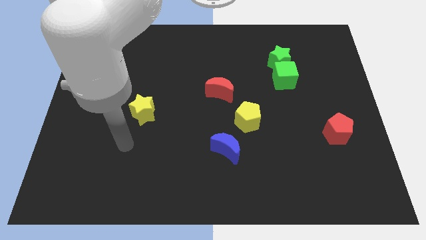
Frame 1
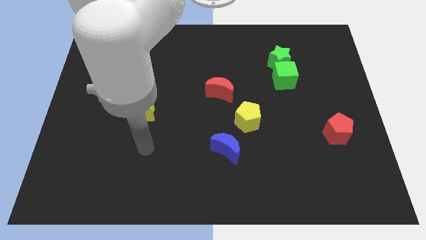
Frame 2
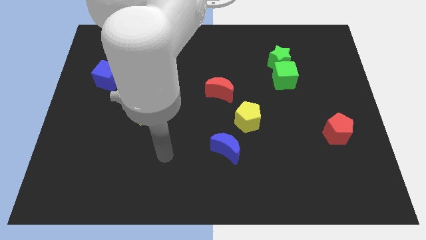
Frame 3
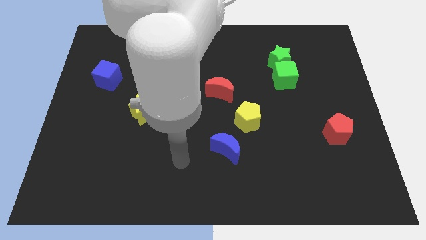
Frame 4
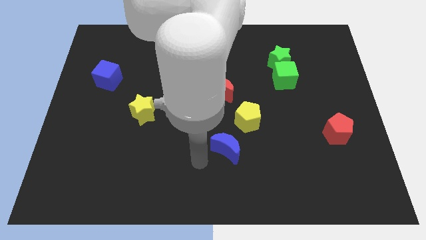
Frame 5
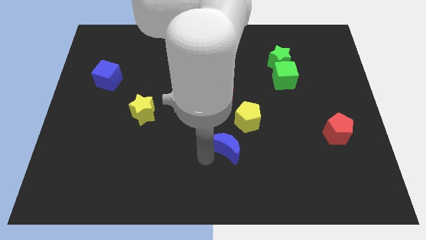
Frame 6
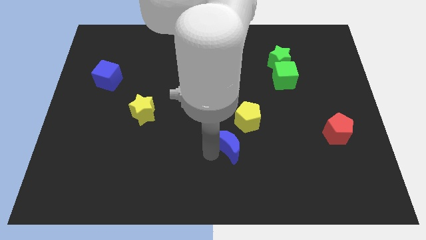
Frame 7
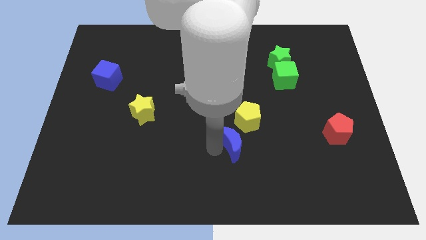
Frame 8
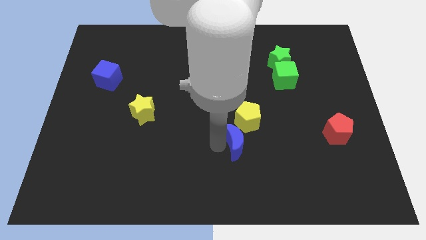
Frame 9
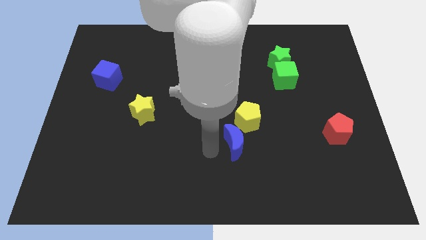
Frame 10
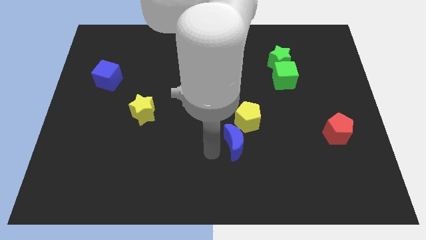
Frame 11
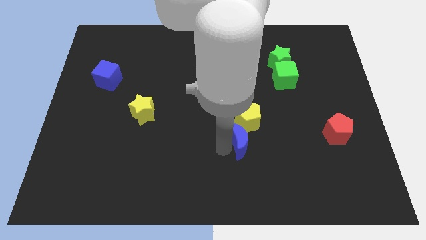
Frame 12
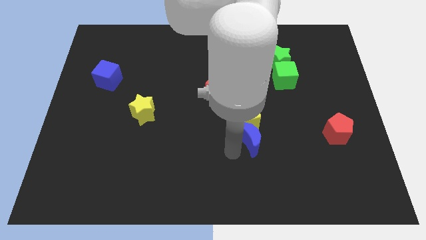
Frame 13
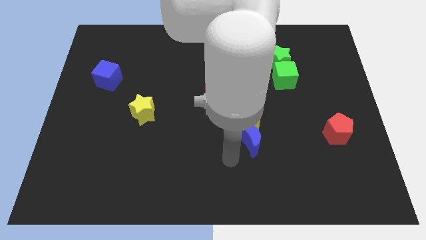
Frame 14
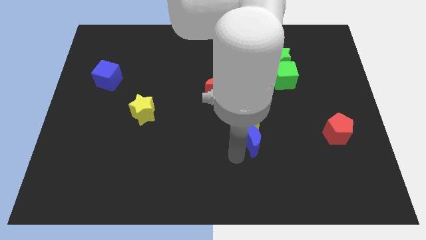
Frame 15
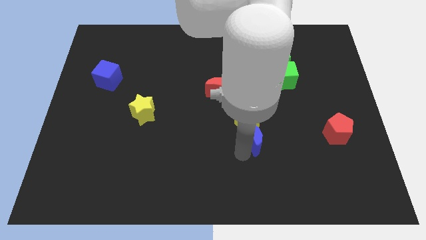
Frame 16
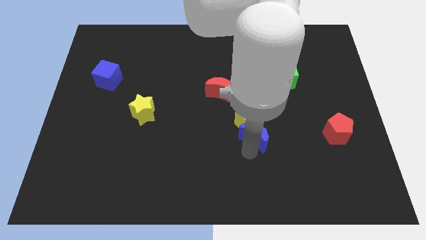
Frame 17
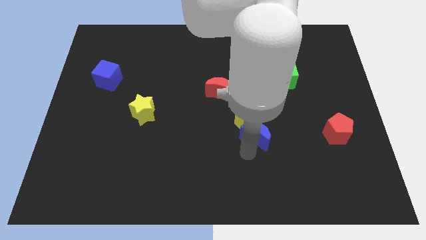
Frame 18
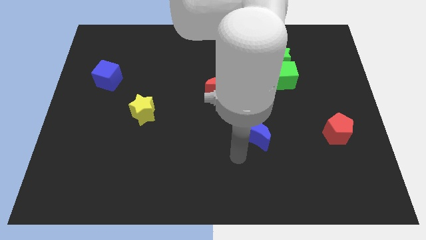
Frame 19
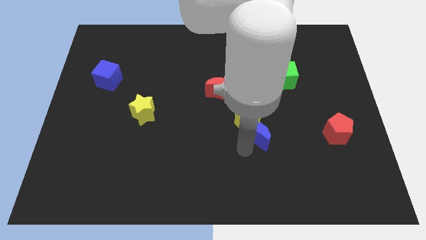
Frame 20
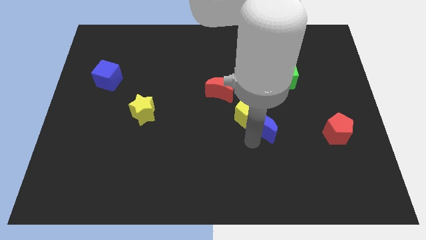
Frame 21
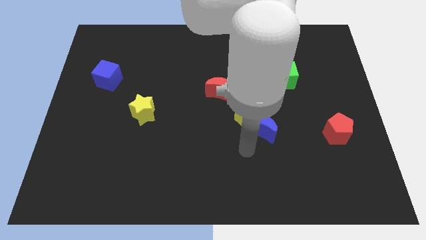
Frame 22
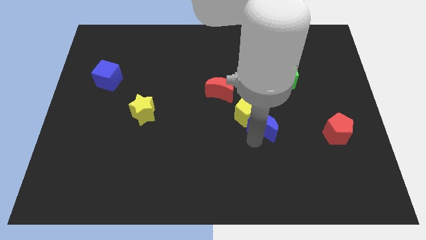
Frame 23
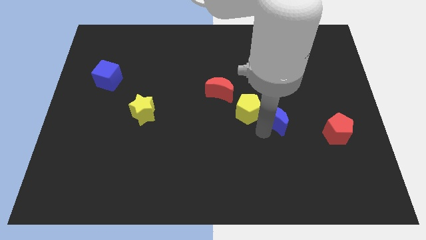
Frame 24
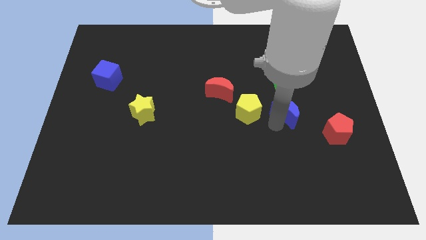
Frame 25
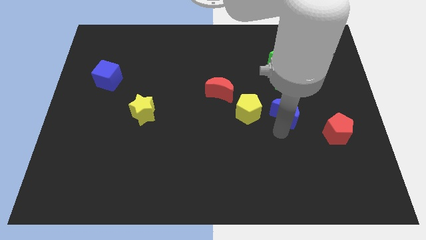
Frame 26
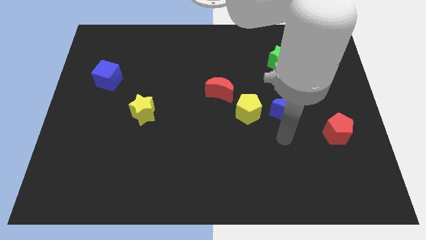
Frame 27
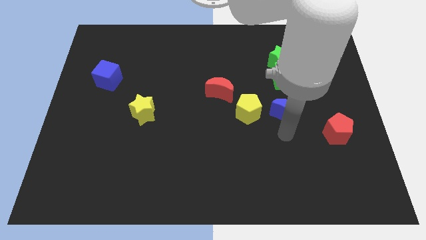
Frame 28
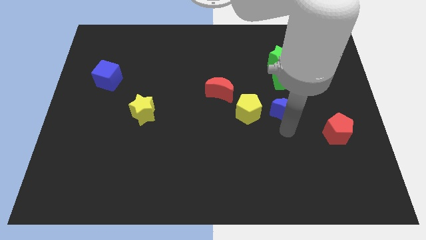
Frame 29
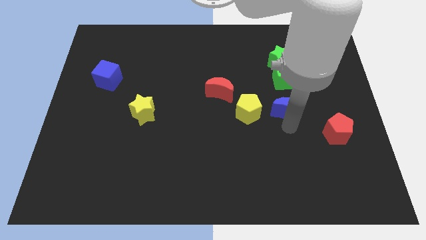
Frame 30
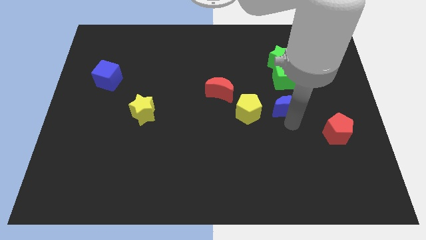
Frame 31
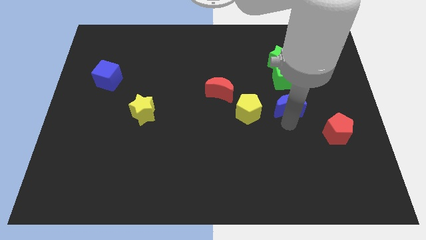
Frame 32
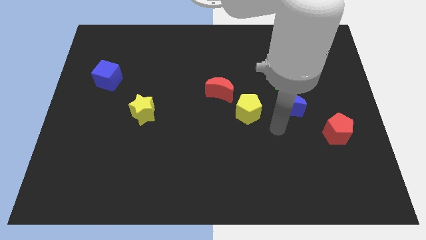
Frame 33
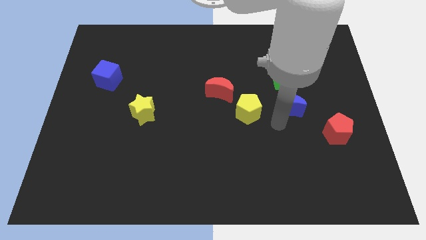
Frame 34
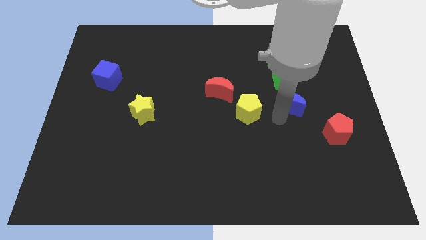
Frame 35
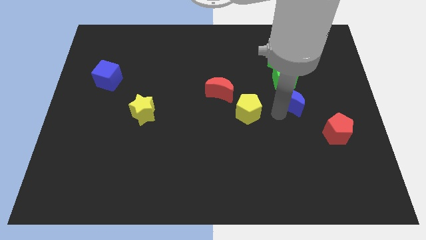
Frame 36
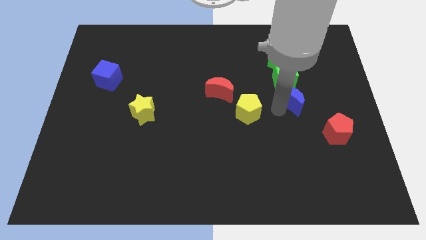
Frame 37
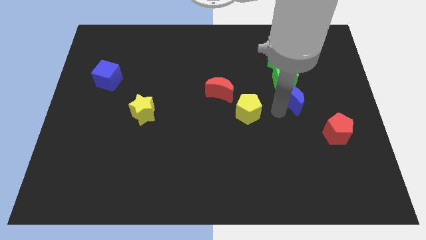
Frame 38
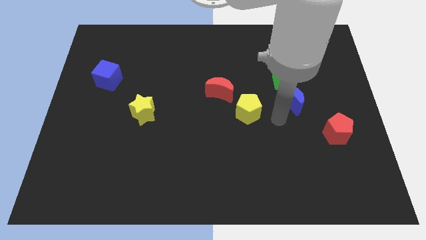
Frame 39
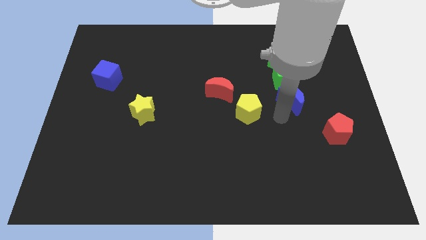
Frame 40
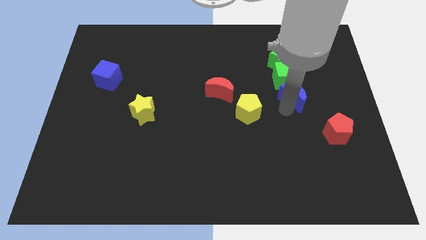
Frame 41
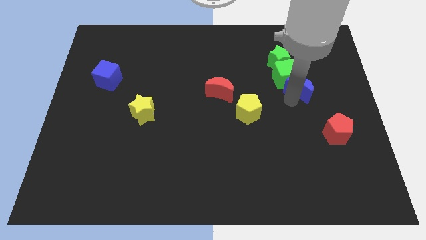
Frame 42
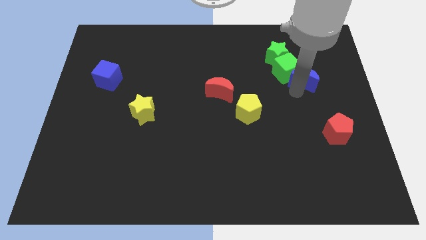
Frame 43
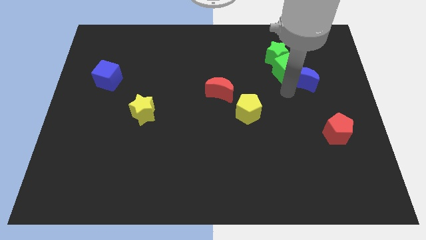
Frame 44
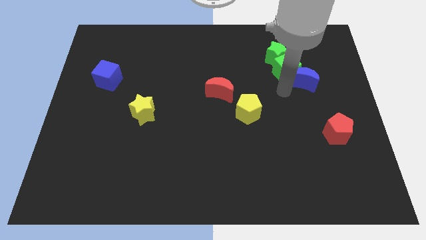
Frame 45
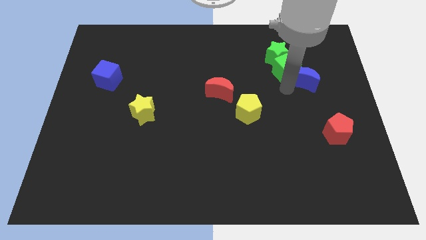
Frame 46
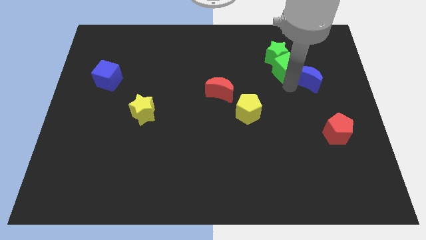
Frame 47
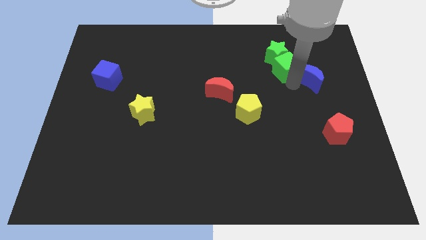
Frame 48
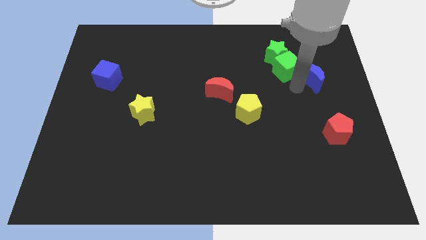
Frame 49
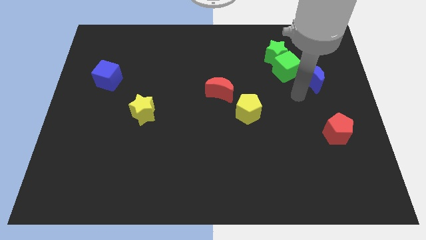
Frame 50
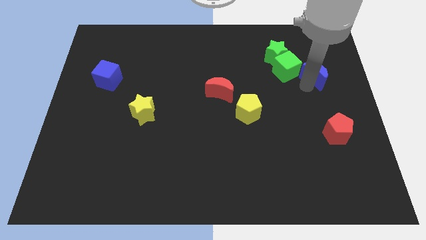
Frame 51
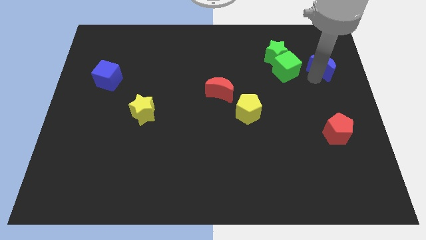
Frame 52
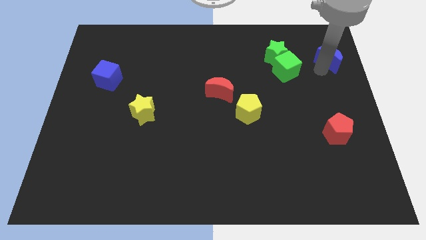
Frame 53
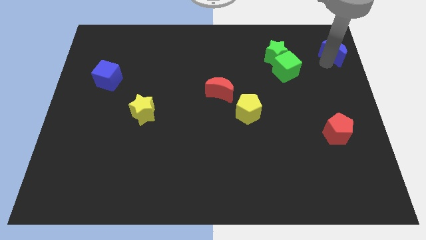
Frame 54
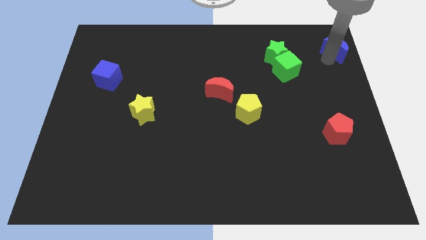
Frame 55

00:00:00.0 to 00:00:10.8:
push the blue moon to the top right of the board

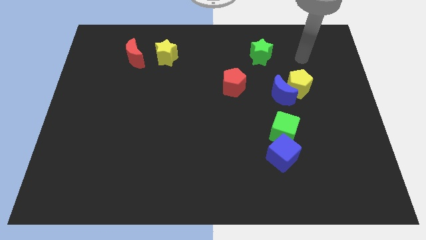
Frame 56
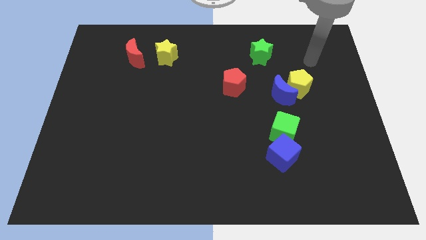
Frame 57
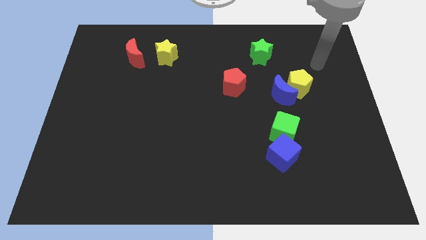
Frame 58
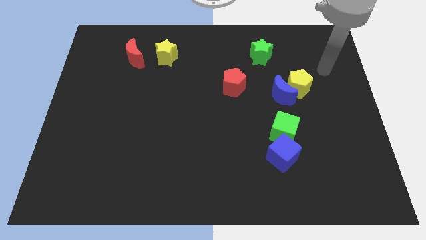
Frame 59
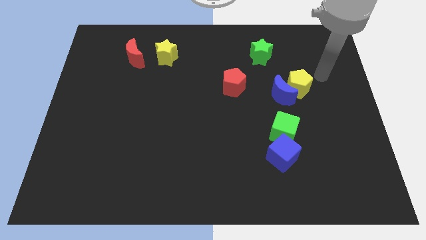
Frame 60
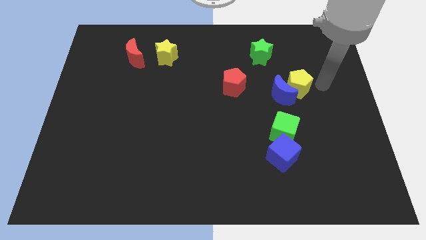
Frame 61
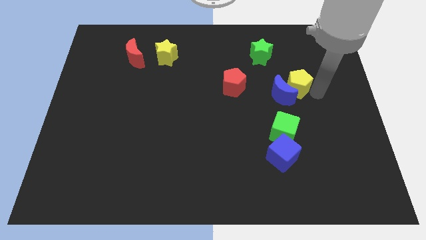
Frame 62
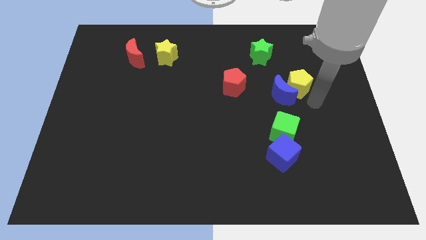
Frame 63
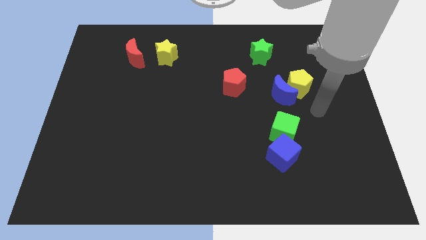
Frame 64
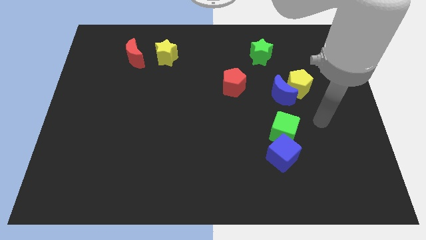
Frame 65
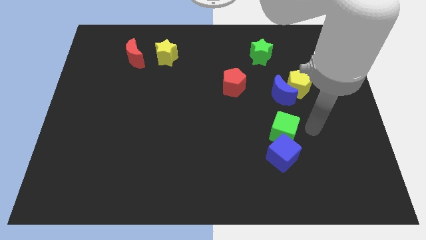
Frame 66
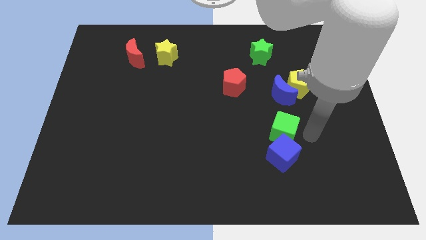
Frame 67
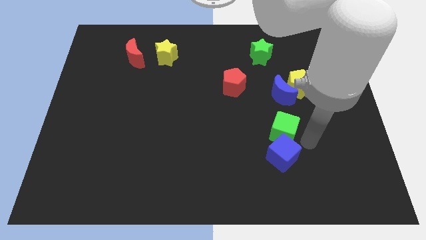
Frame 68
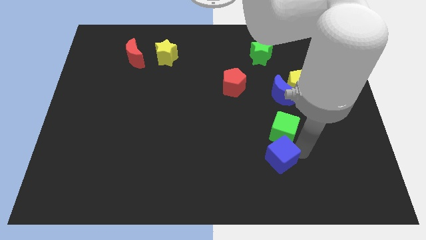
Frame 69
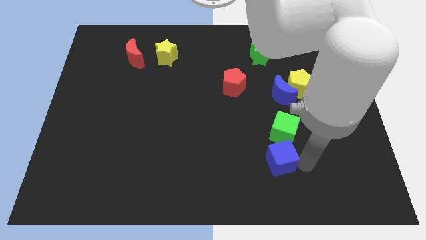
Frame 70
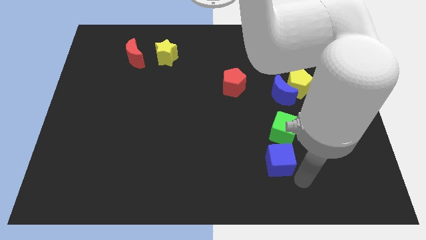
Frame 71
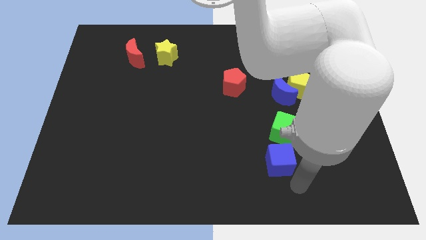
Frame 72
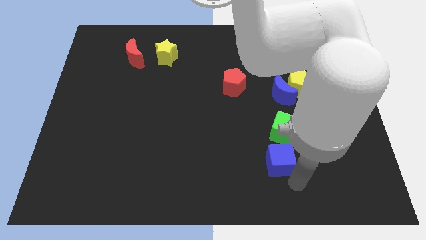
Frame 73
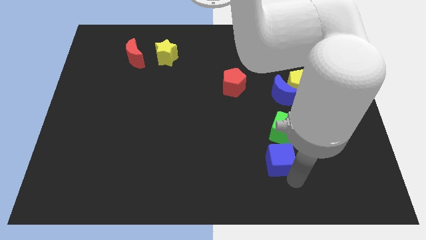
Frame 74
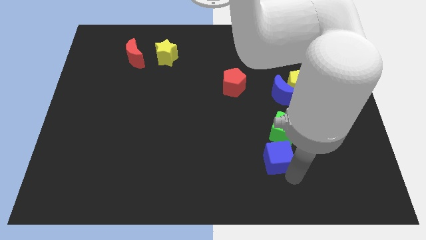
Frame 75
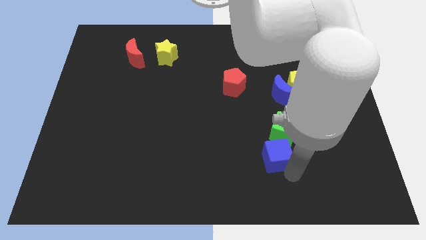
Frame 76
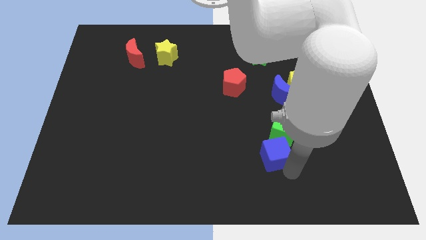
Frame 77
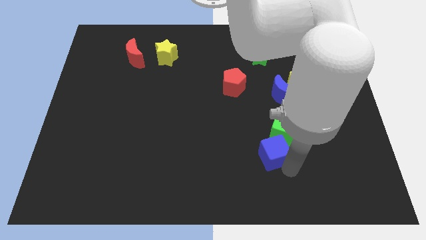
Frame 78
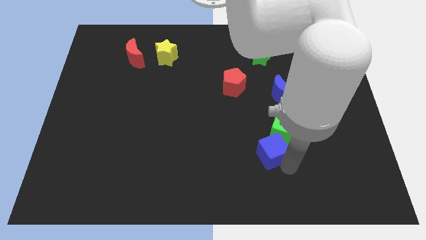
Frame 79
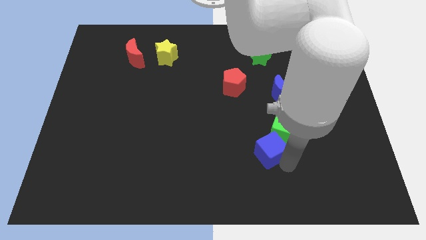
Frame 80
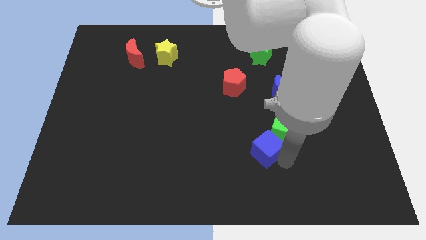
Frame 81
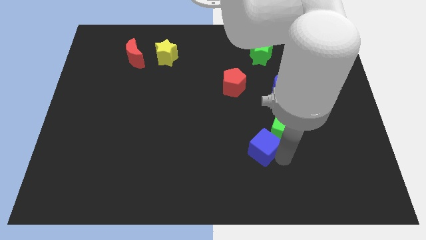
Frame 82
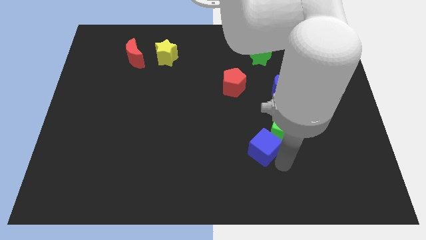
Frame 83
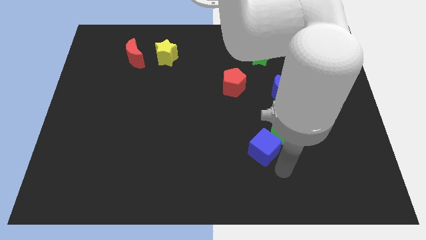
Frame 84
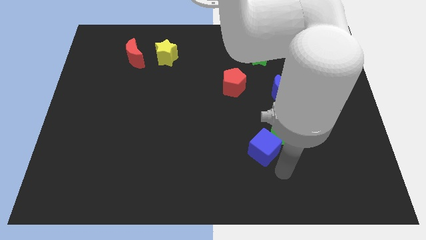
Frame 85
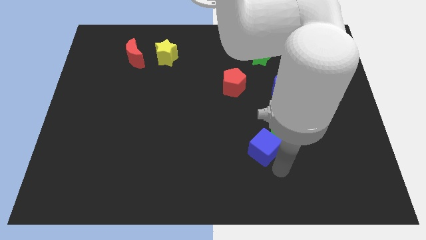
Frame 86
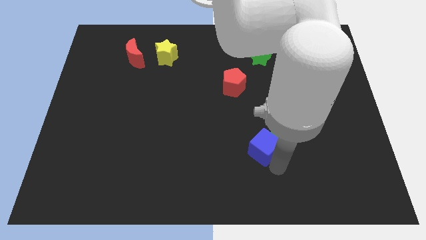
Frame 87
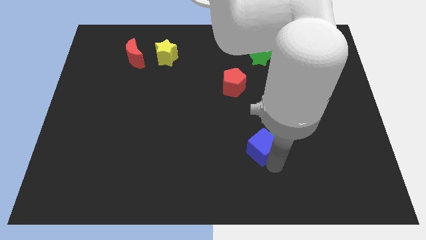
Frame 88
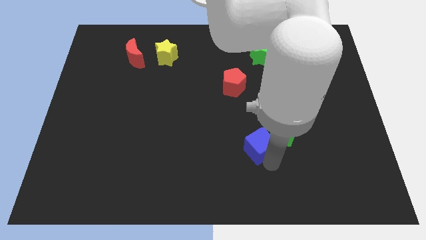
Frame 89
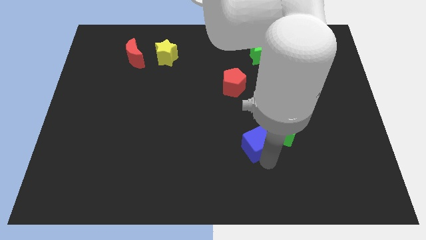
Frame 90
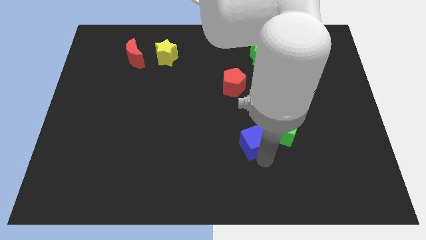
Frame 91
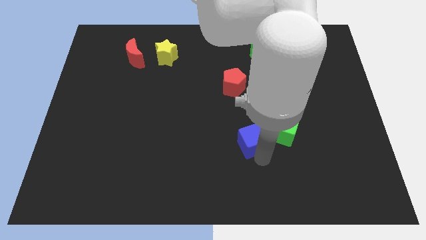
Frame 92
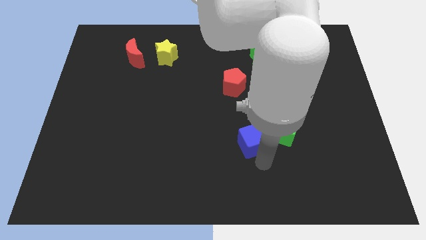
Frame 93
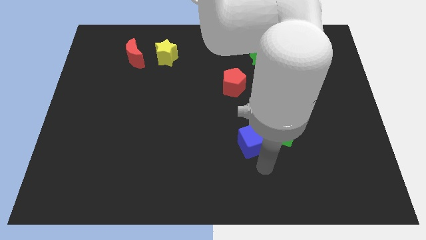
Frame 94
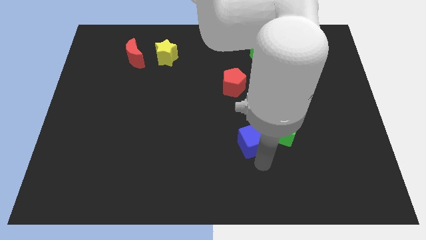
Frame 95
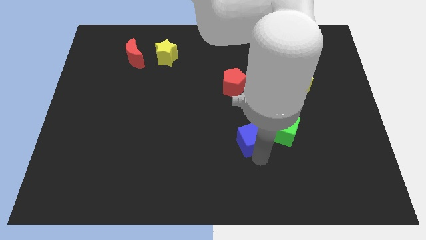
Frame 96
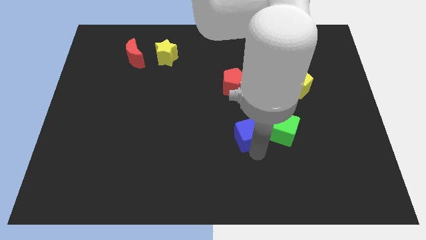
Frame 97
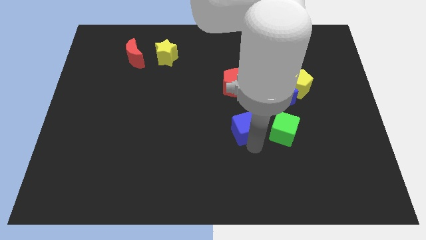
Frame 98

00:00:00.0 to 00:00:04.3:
move the blue cube to the middle of the board
